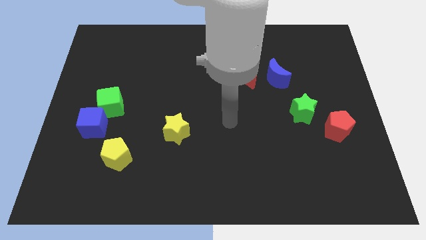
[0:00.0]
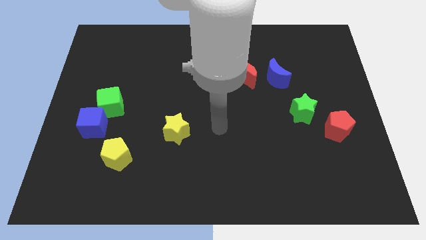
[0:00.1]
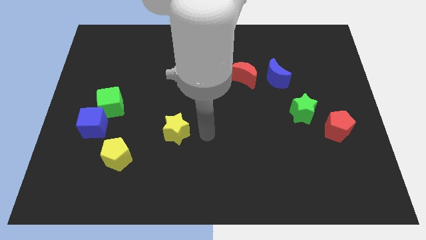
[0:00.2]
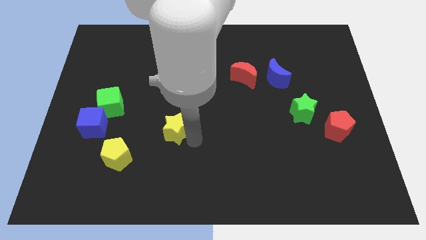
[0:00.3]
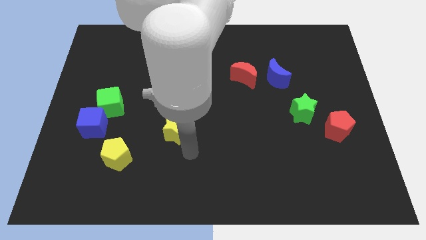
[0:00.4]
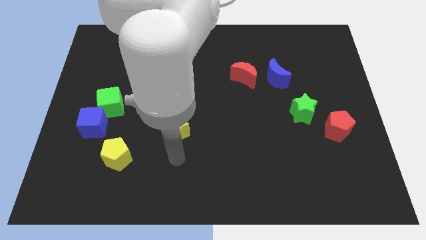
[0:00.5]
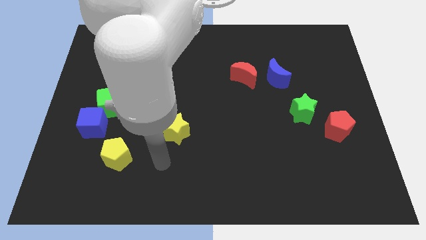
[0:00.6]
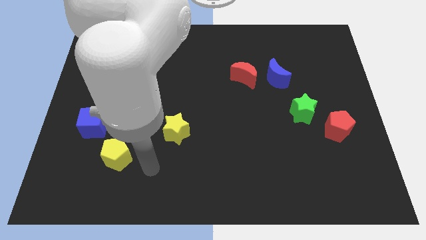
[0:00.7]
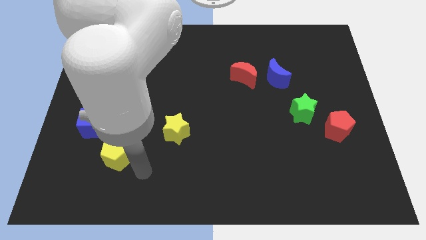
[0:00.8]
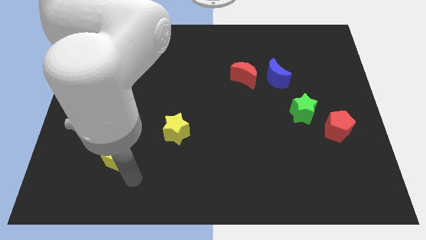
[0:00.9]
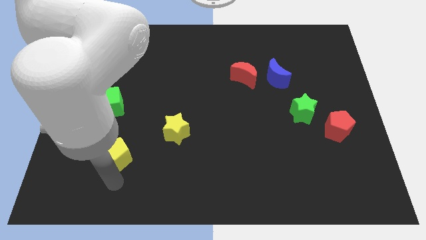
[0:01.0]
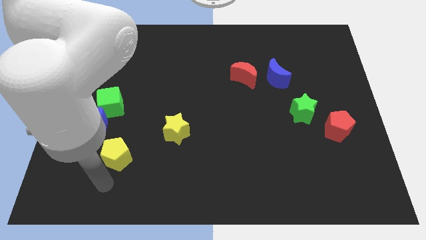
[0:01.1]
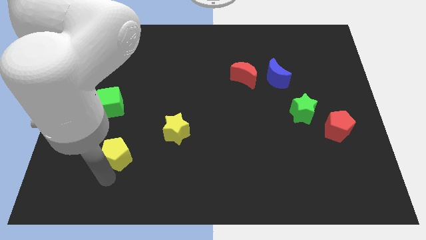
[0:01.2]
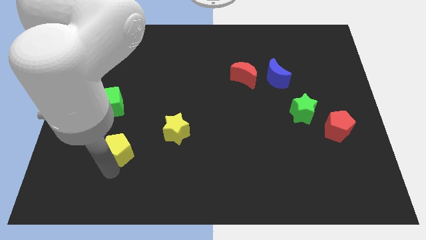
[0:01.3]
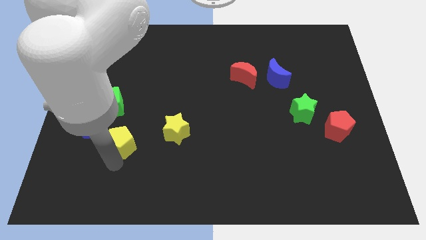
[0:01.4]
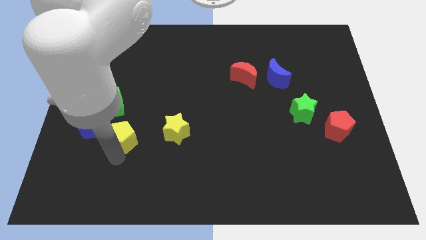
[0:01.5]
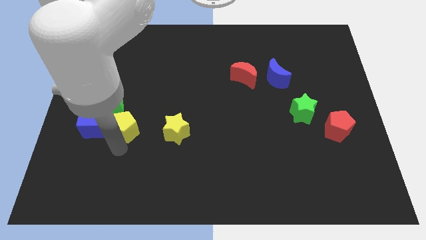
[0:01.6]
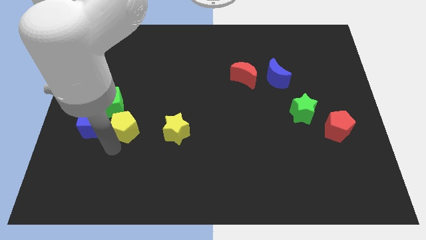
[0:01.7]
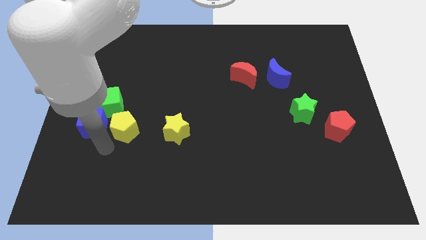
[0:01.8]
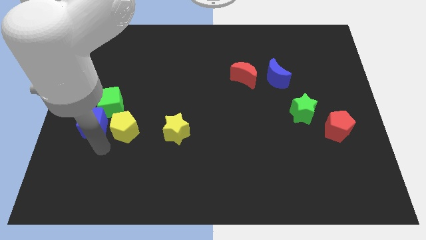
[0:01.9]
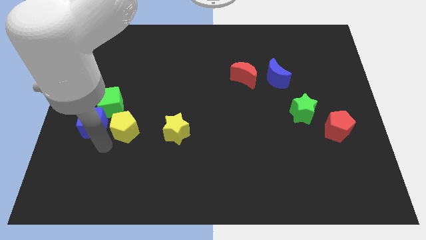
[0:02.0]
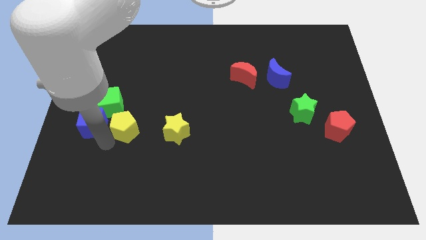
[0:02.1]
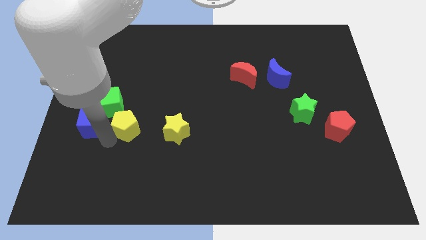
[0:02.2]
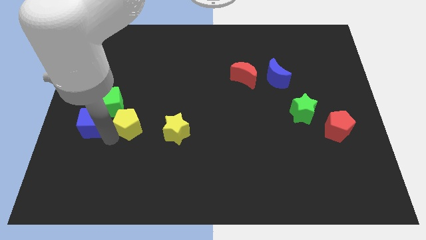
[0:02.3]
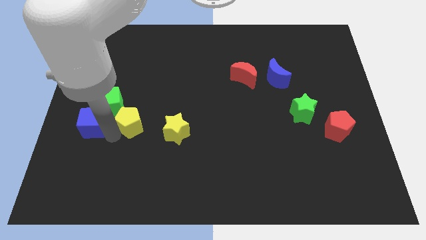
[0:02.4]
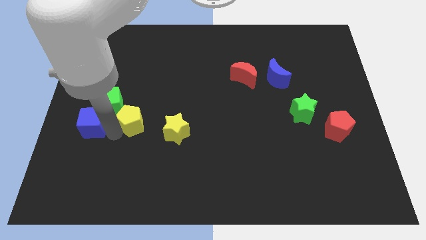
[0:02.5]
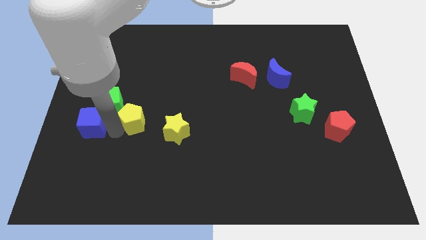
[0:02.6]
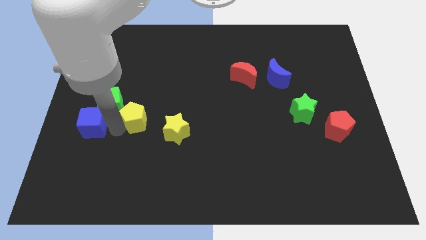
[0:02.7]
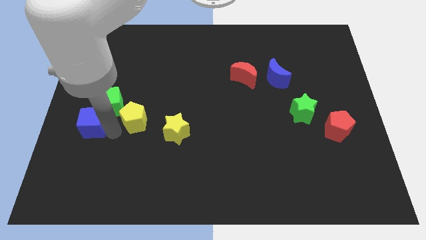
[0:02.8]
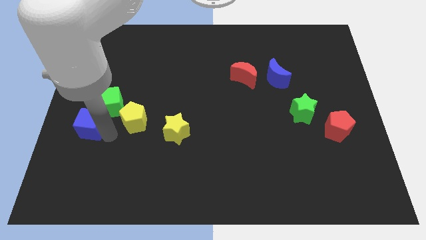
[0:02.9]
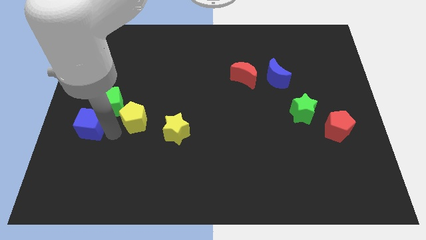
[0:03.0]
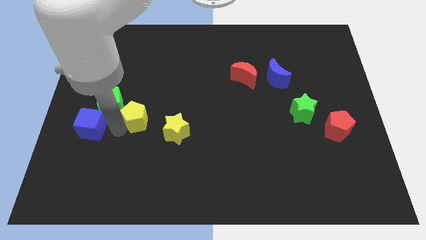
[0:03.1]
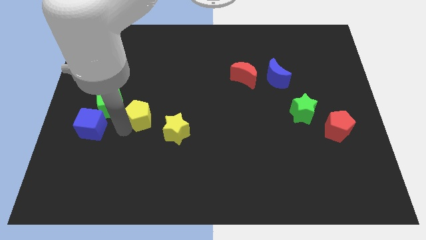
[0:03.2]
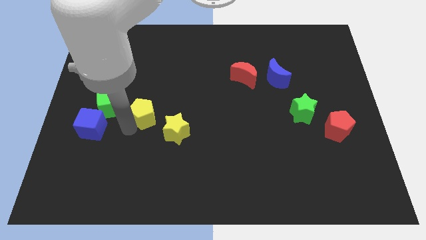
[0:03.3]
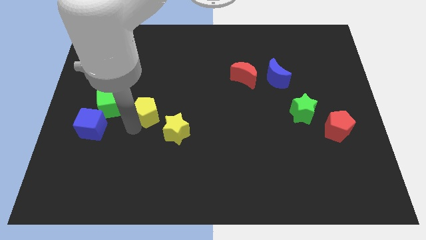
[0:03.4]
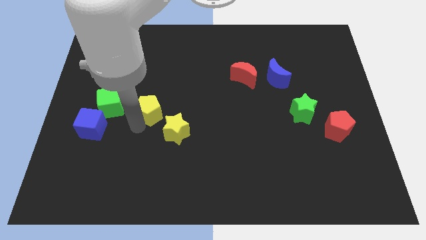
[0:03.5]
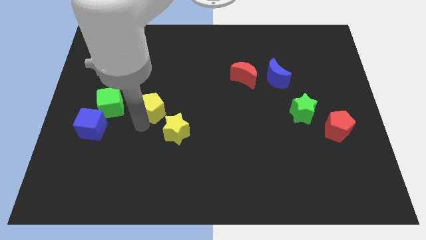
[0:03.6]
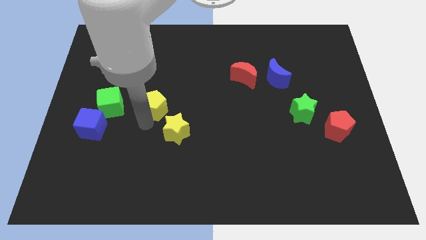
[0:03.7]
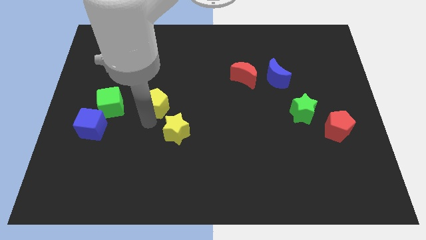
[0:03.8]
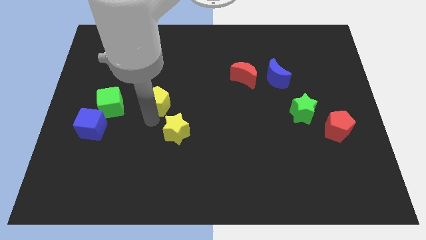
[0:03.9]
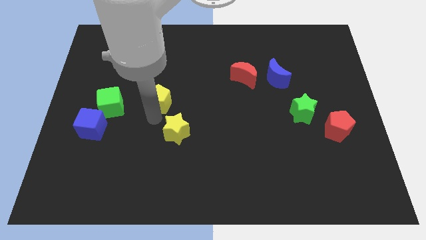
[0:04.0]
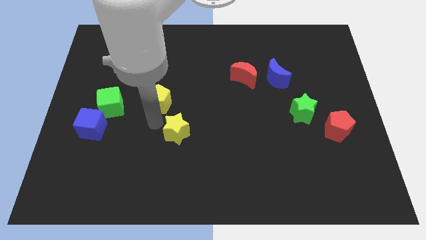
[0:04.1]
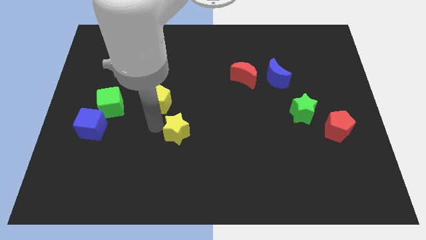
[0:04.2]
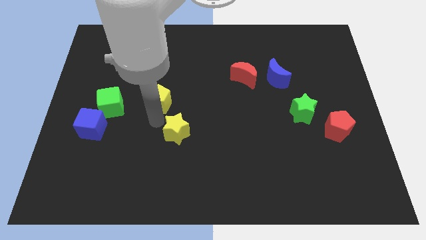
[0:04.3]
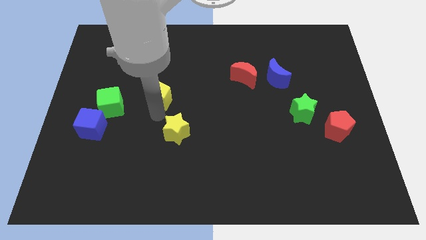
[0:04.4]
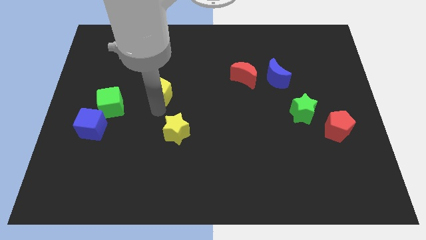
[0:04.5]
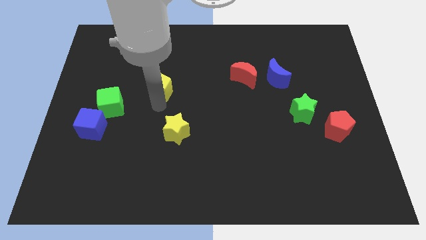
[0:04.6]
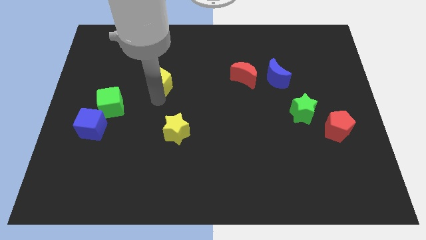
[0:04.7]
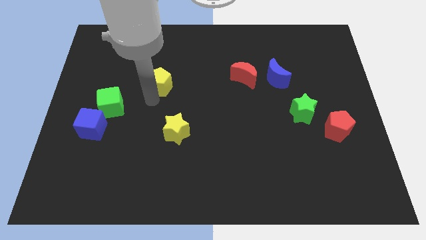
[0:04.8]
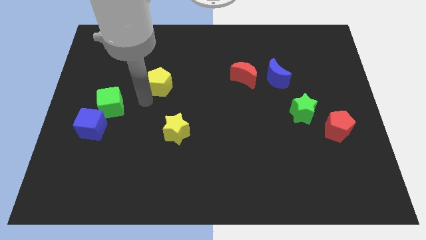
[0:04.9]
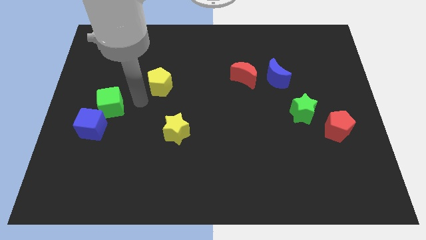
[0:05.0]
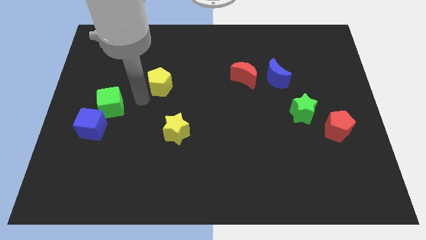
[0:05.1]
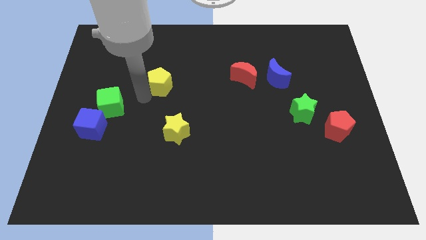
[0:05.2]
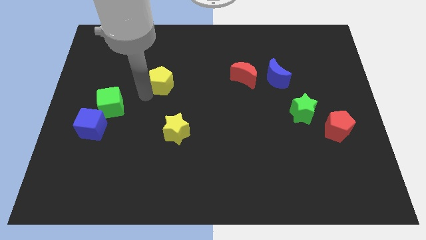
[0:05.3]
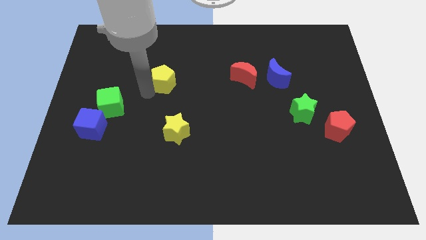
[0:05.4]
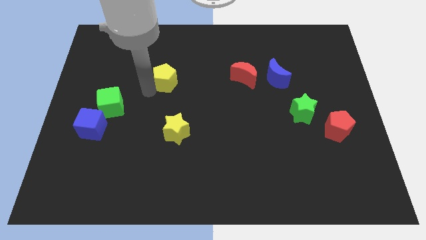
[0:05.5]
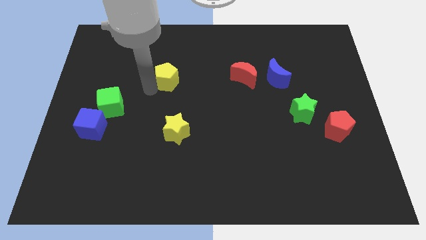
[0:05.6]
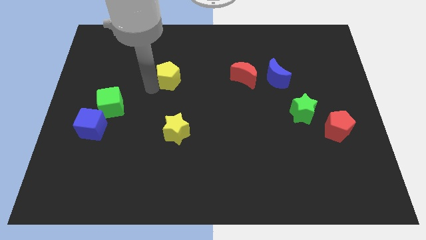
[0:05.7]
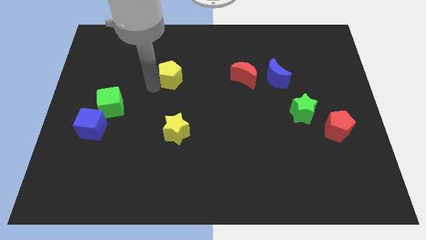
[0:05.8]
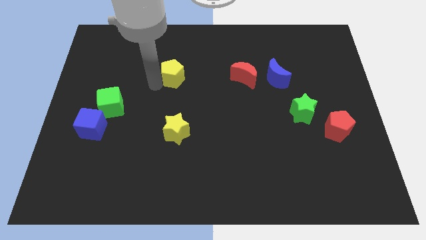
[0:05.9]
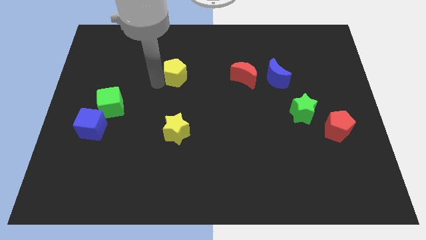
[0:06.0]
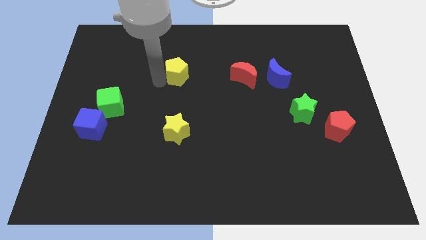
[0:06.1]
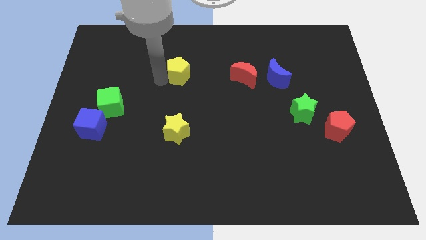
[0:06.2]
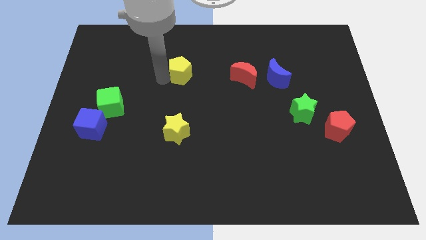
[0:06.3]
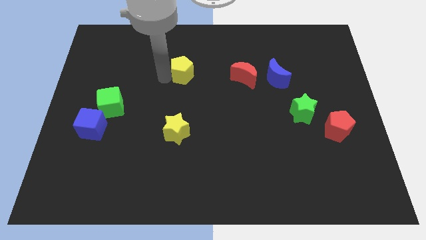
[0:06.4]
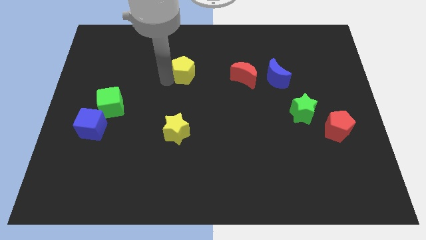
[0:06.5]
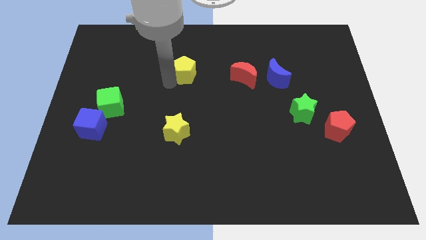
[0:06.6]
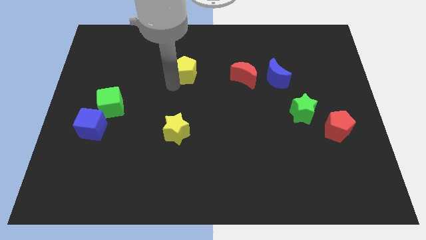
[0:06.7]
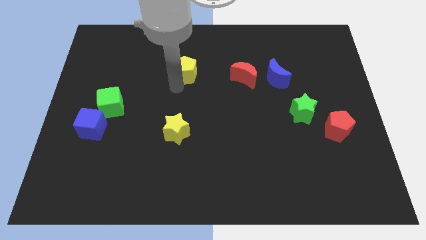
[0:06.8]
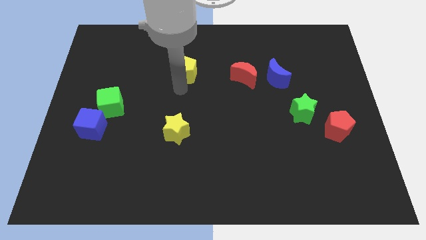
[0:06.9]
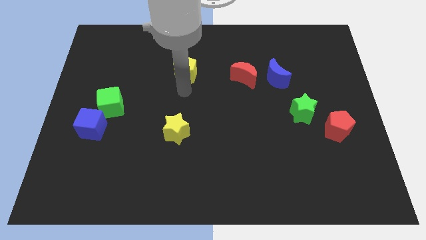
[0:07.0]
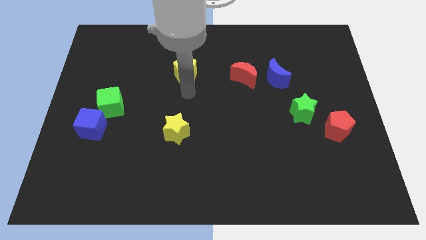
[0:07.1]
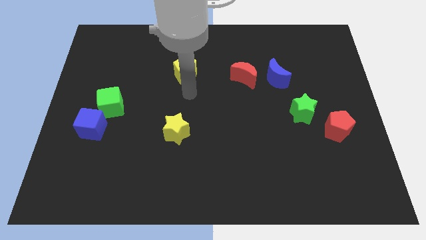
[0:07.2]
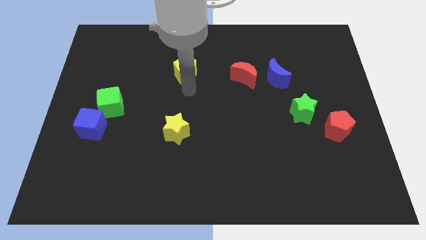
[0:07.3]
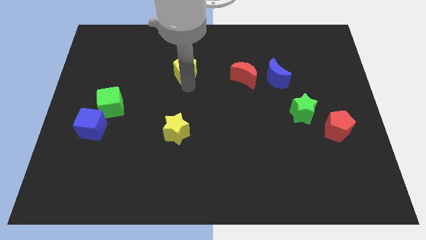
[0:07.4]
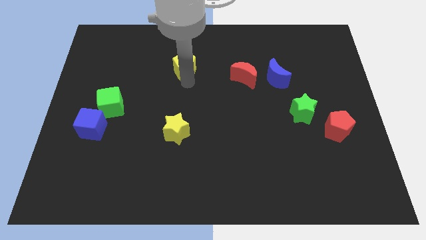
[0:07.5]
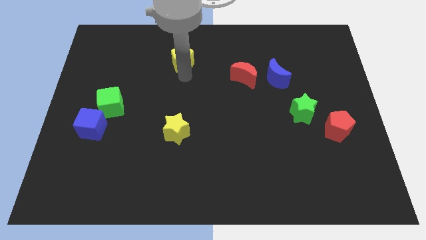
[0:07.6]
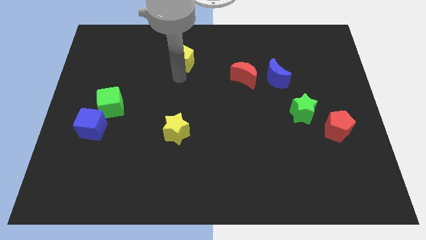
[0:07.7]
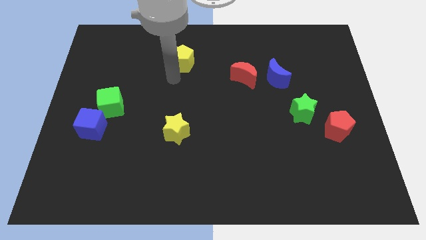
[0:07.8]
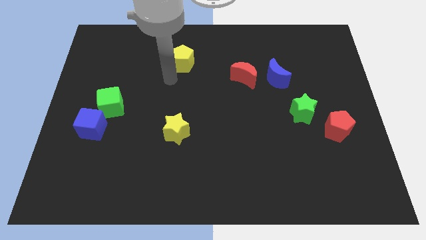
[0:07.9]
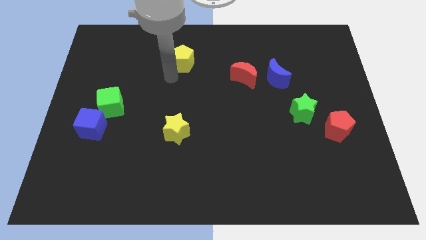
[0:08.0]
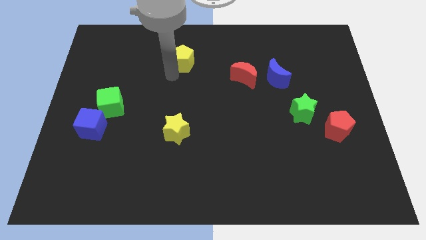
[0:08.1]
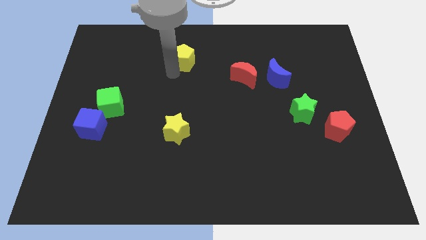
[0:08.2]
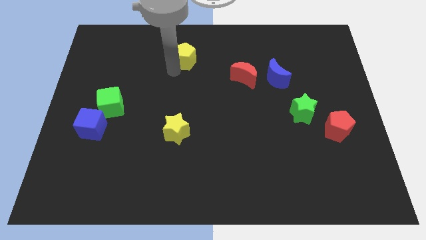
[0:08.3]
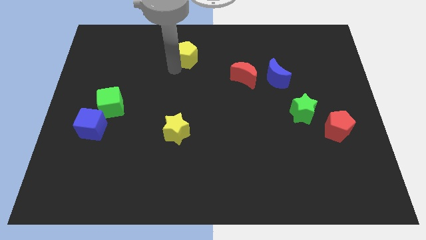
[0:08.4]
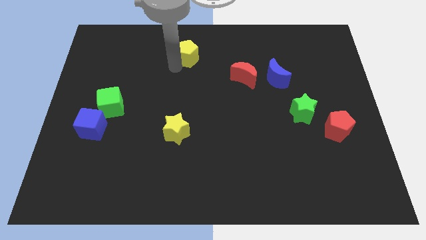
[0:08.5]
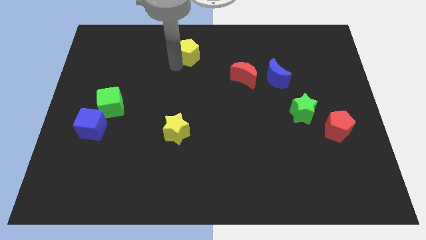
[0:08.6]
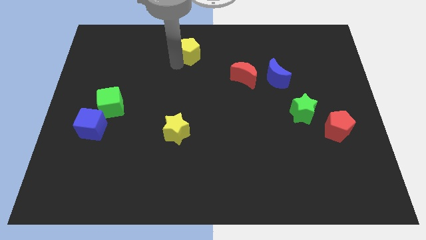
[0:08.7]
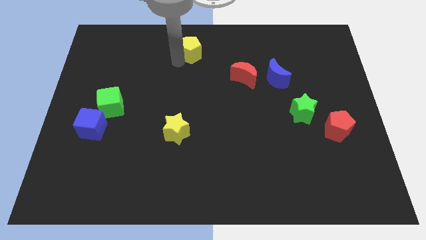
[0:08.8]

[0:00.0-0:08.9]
move the yellow pentagon to the towards your base
